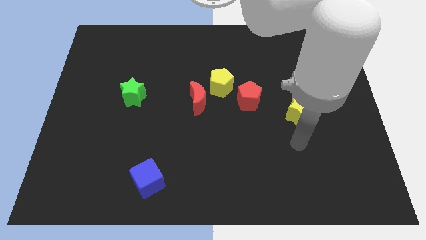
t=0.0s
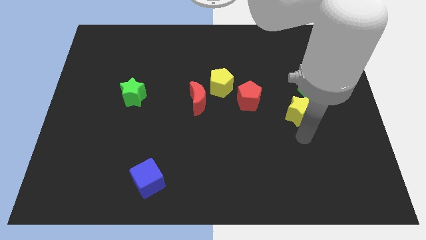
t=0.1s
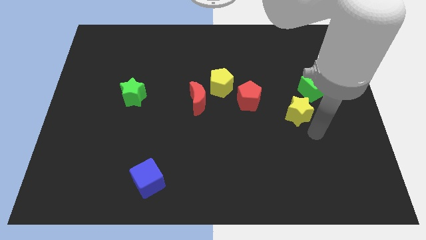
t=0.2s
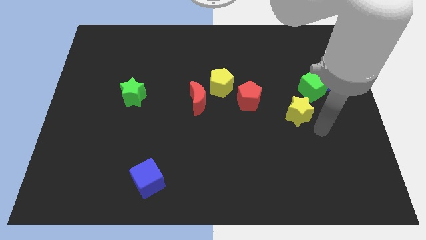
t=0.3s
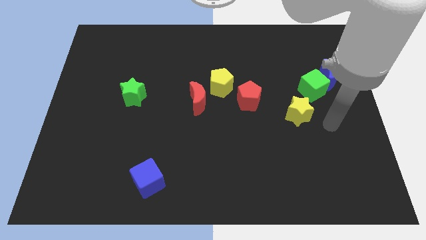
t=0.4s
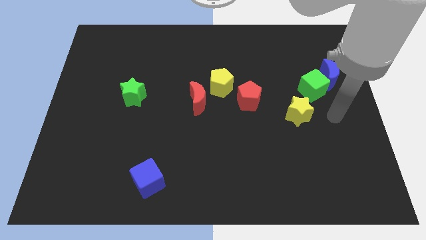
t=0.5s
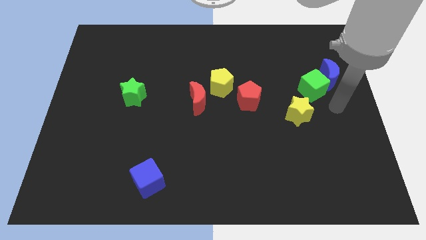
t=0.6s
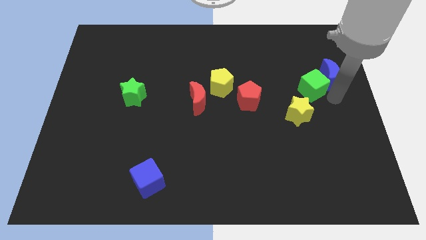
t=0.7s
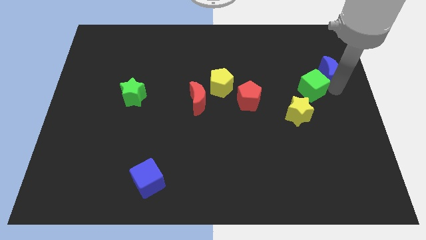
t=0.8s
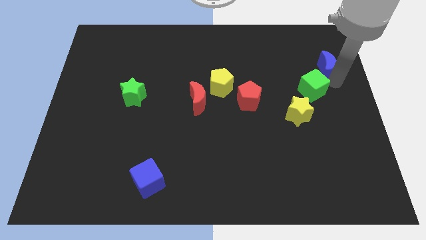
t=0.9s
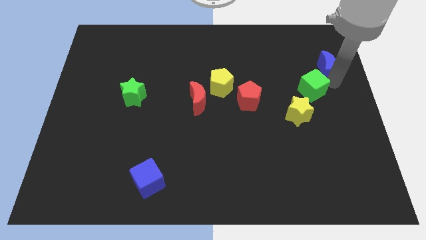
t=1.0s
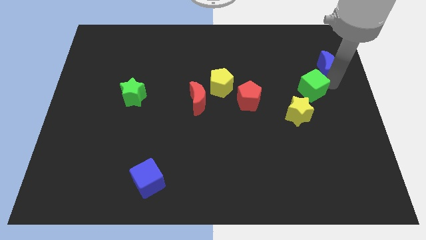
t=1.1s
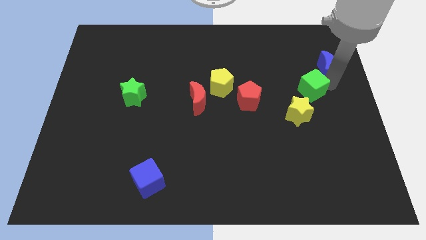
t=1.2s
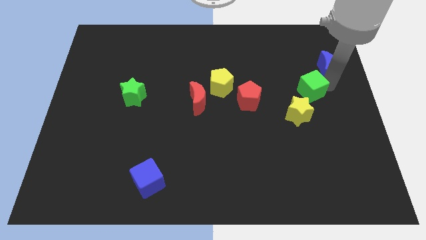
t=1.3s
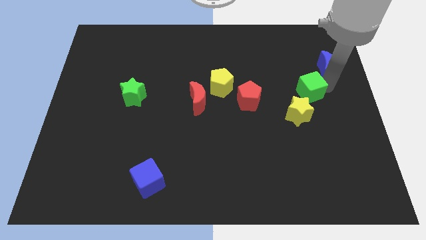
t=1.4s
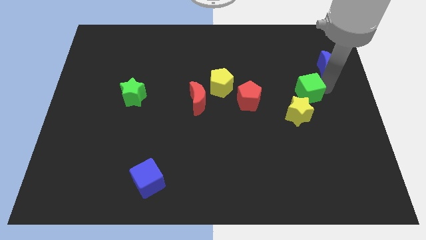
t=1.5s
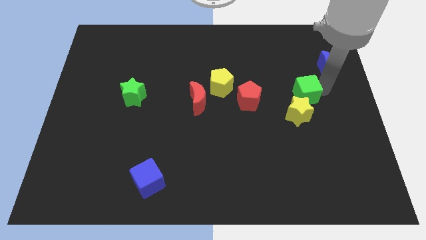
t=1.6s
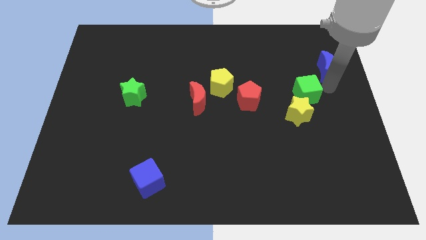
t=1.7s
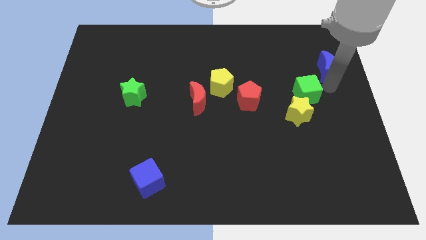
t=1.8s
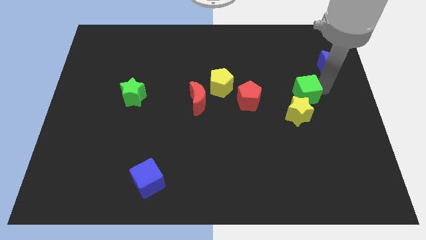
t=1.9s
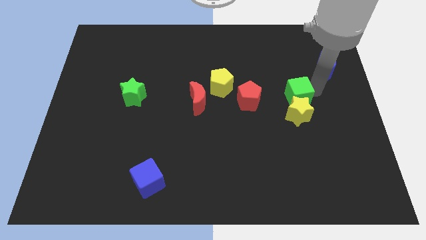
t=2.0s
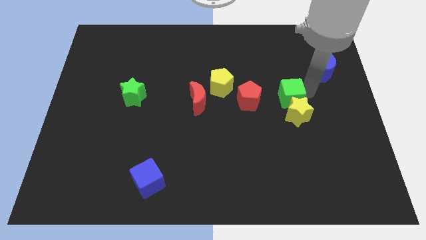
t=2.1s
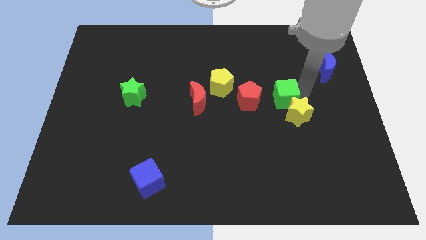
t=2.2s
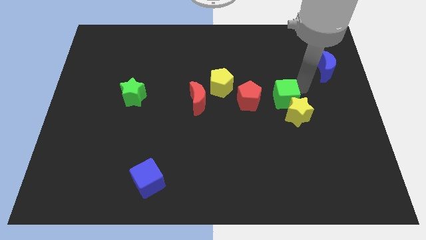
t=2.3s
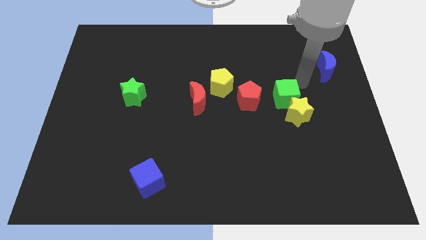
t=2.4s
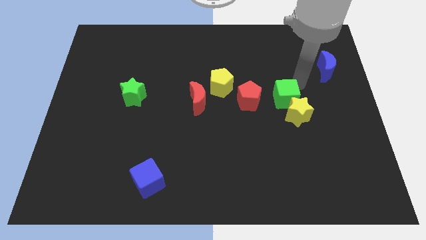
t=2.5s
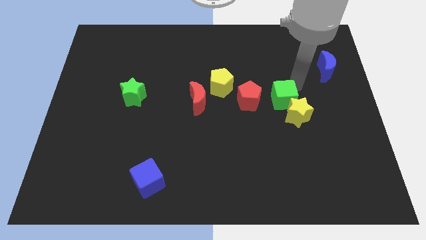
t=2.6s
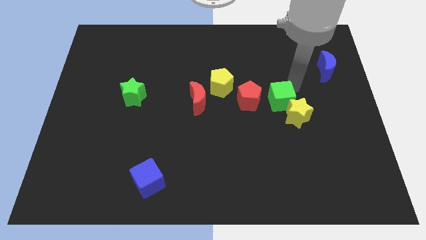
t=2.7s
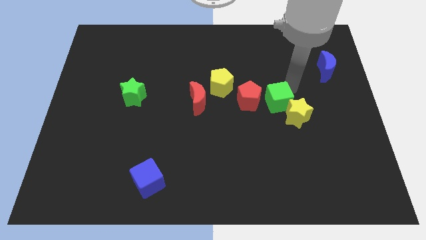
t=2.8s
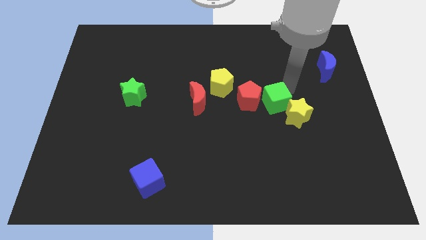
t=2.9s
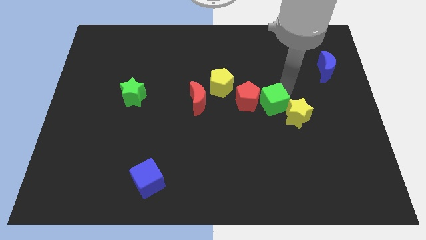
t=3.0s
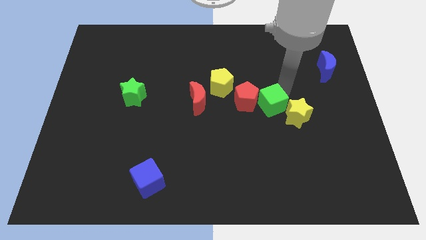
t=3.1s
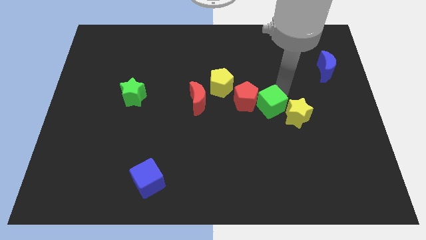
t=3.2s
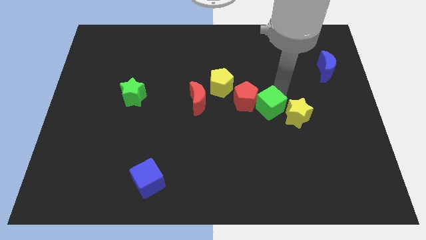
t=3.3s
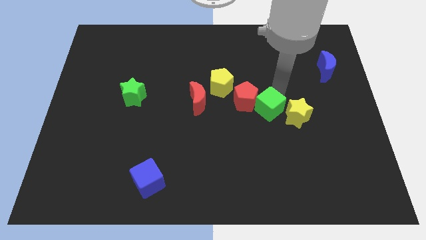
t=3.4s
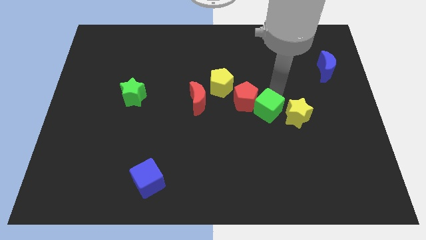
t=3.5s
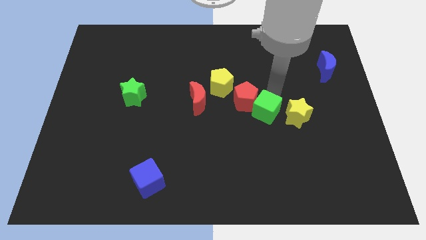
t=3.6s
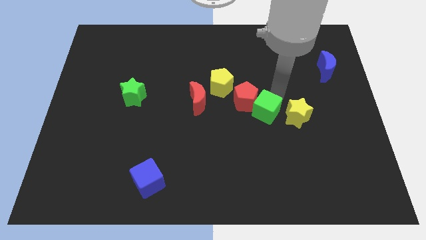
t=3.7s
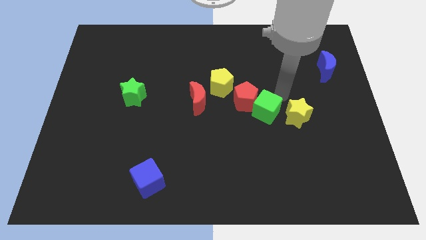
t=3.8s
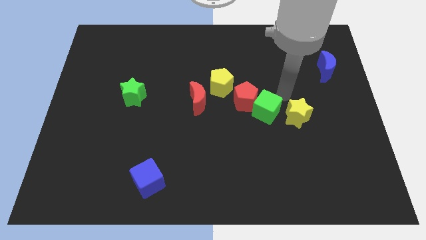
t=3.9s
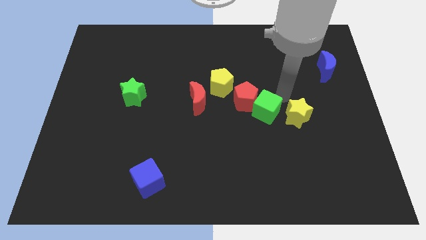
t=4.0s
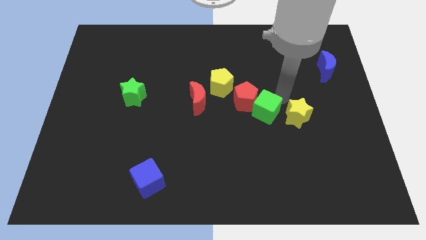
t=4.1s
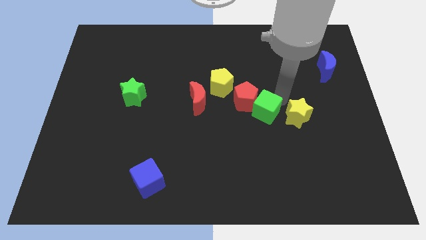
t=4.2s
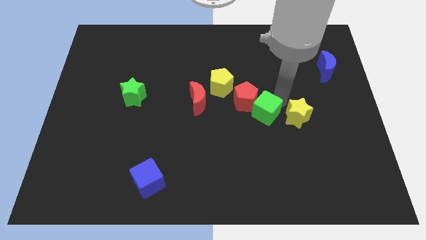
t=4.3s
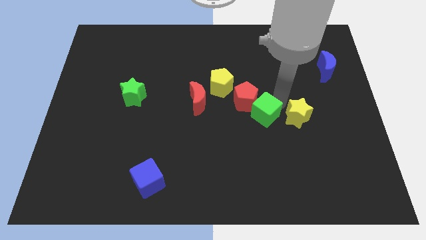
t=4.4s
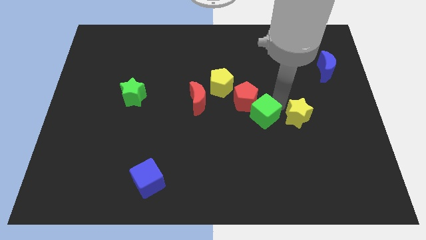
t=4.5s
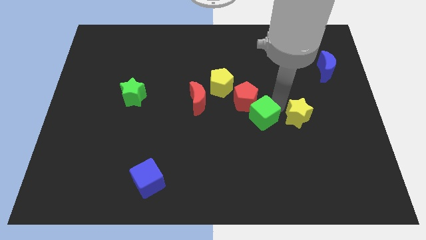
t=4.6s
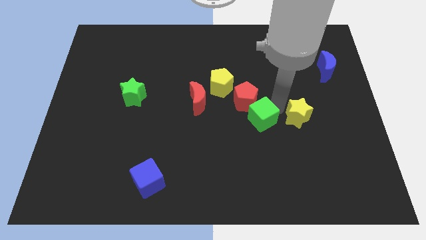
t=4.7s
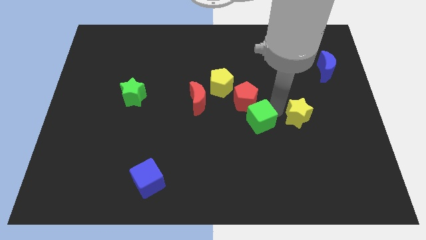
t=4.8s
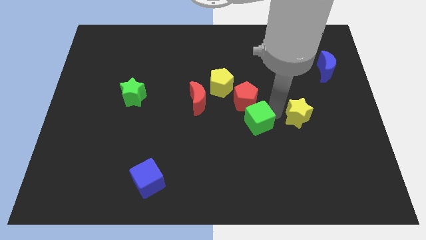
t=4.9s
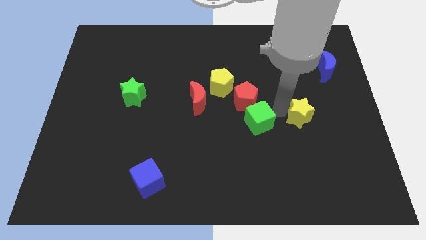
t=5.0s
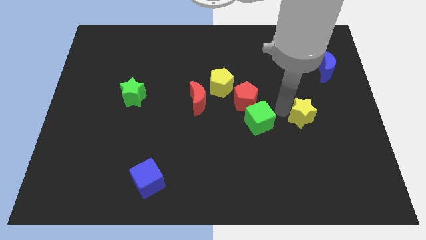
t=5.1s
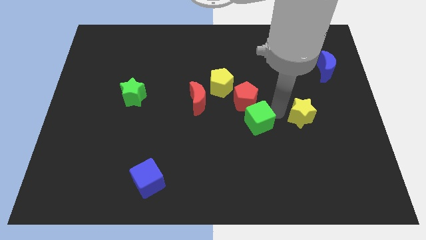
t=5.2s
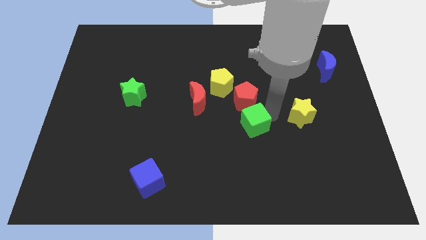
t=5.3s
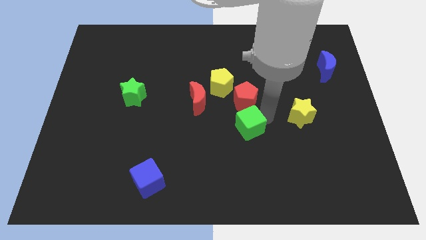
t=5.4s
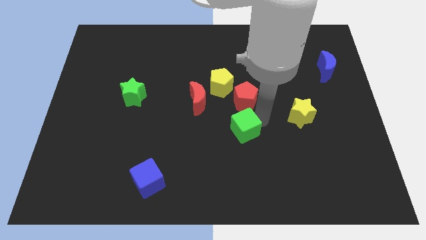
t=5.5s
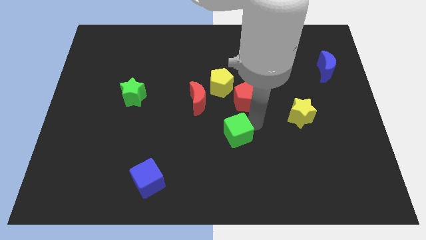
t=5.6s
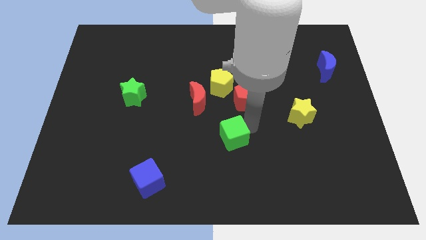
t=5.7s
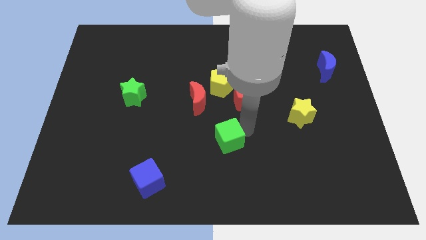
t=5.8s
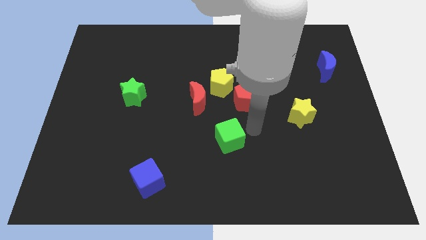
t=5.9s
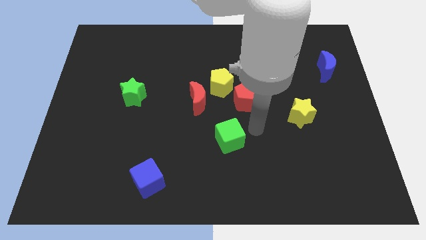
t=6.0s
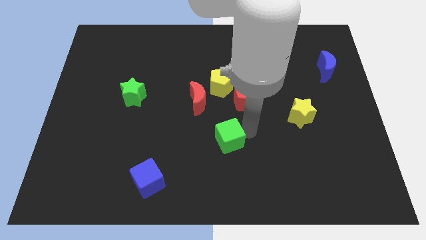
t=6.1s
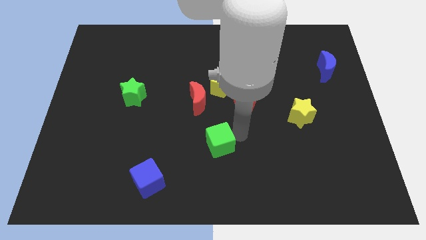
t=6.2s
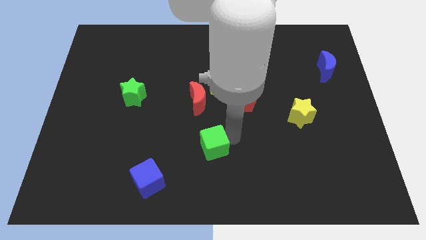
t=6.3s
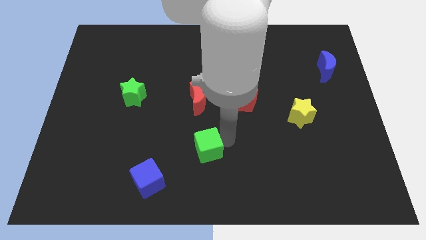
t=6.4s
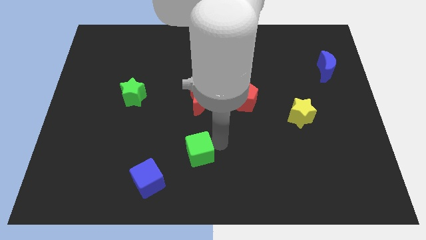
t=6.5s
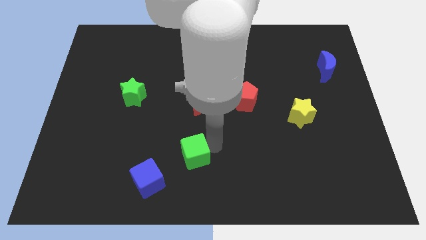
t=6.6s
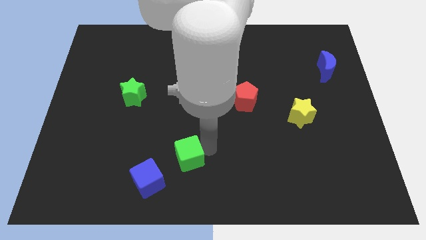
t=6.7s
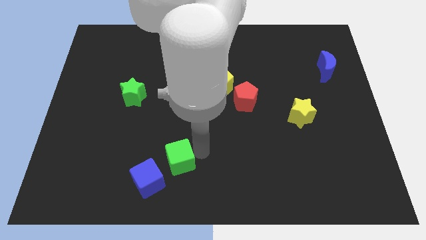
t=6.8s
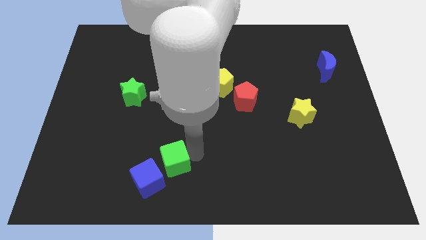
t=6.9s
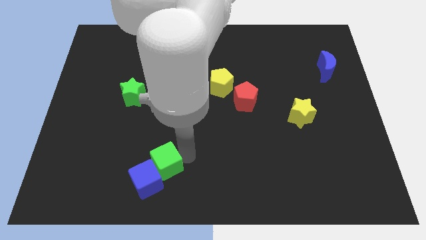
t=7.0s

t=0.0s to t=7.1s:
slide the green cube towards the blue cube
